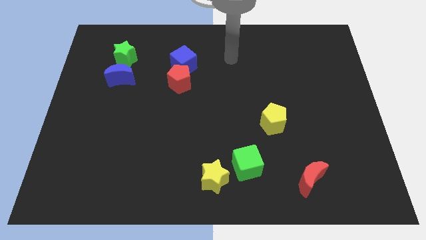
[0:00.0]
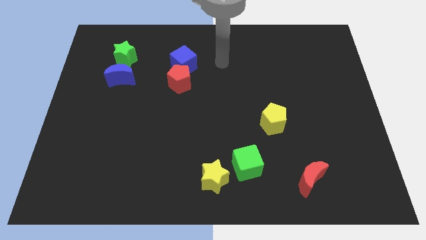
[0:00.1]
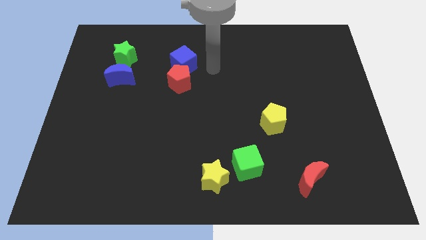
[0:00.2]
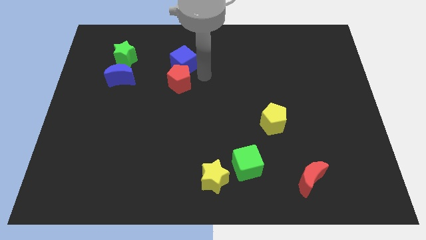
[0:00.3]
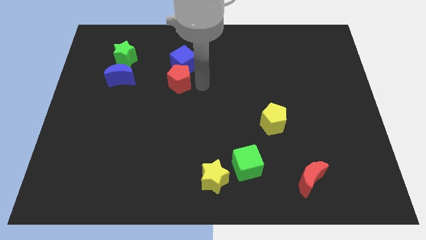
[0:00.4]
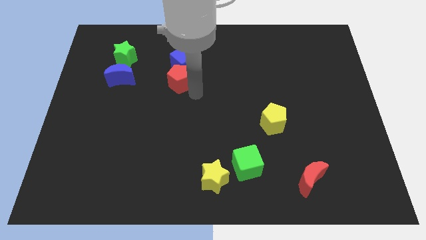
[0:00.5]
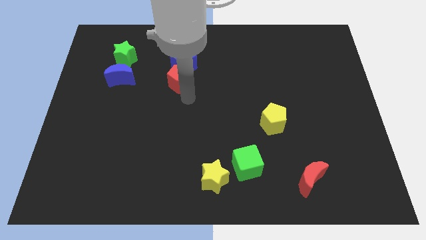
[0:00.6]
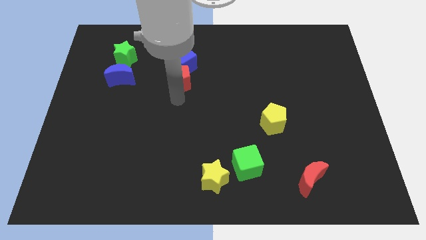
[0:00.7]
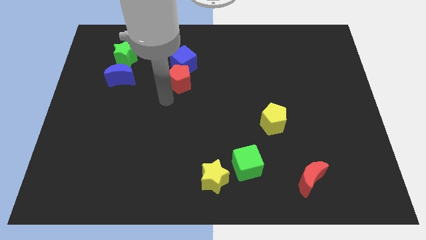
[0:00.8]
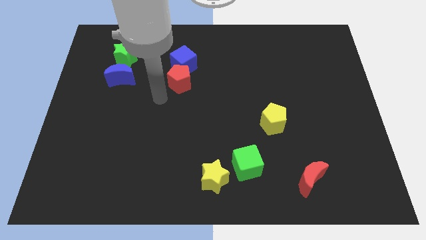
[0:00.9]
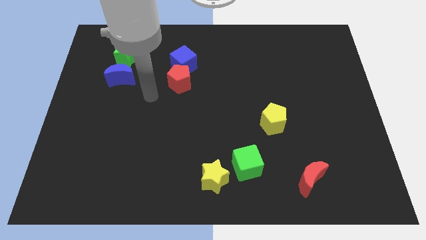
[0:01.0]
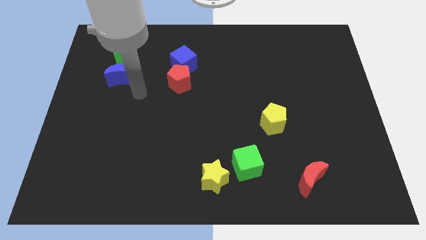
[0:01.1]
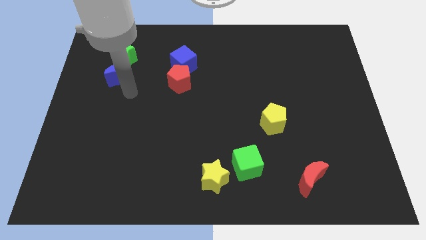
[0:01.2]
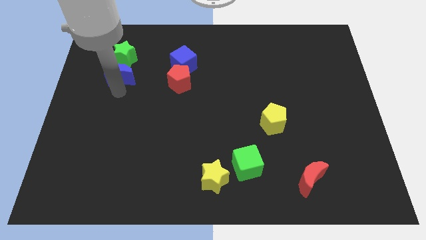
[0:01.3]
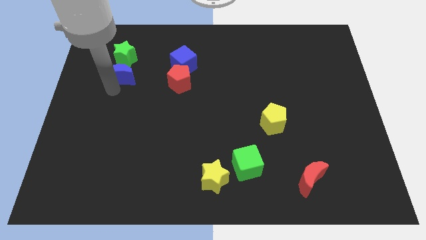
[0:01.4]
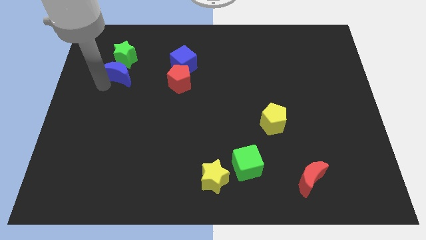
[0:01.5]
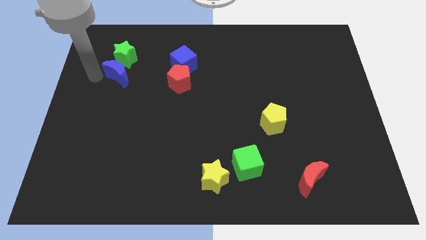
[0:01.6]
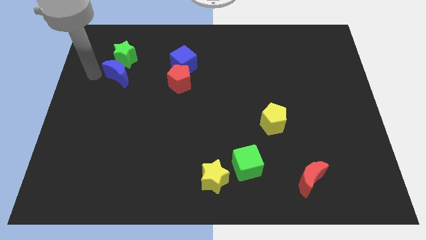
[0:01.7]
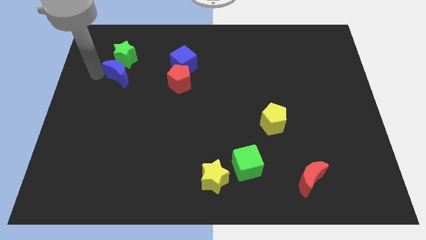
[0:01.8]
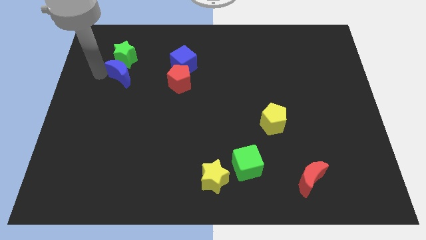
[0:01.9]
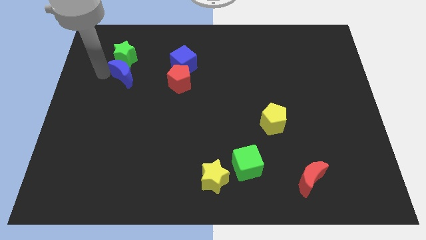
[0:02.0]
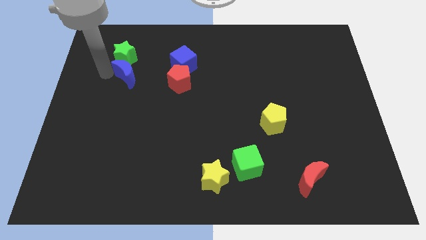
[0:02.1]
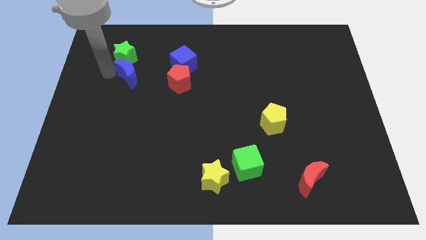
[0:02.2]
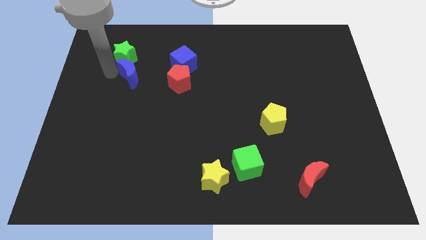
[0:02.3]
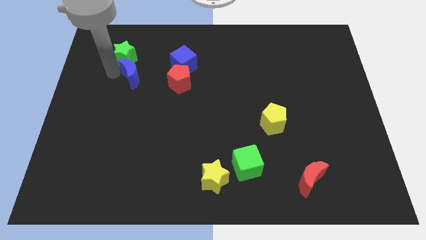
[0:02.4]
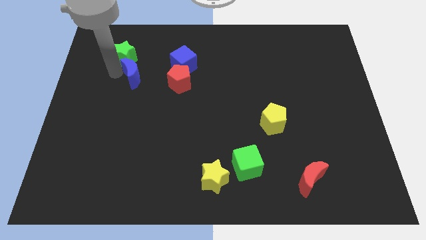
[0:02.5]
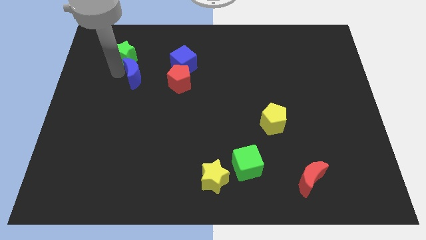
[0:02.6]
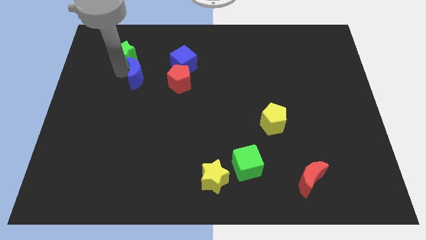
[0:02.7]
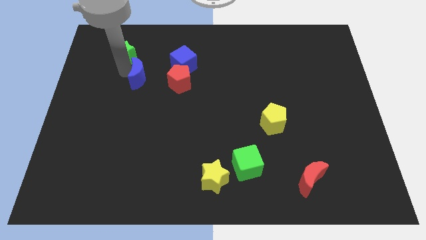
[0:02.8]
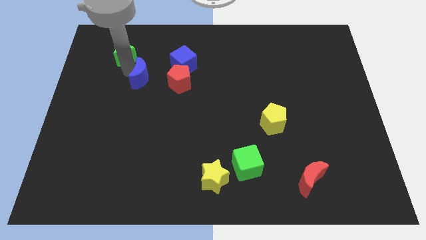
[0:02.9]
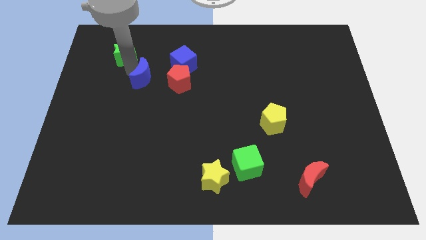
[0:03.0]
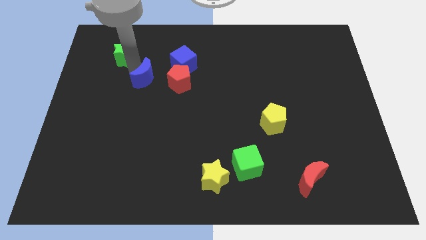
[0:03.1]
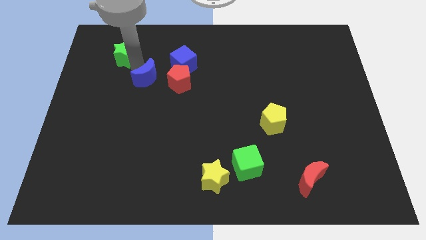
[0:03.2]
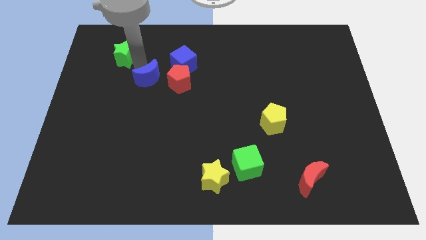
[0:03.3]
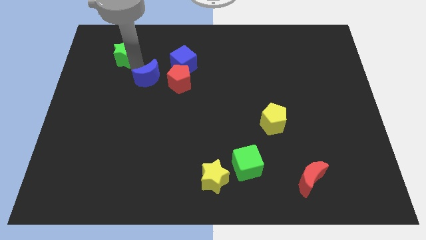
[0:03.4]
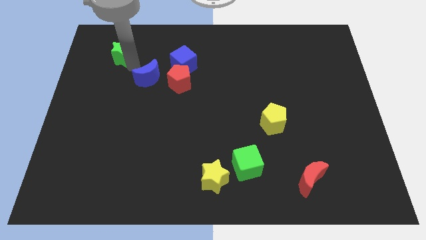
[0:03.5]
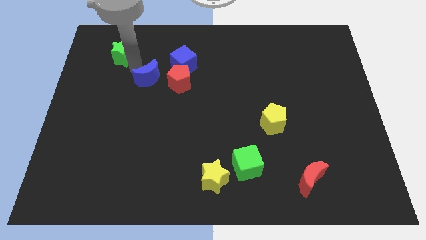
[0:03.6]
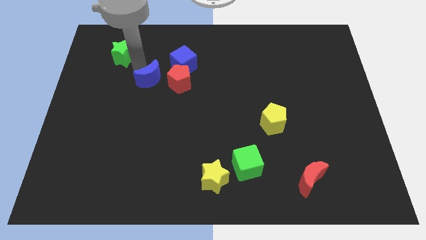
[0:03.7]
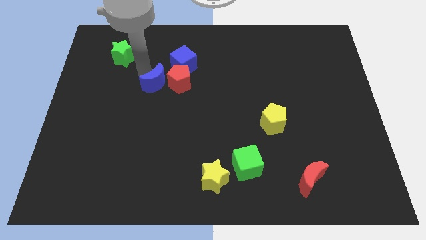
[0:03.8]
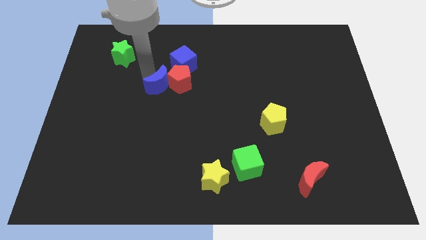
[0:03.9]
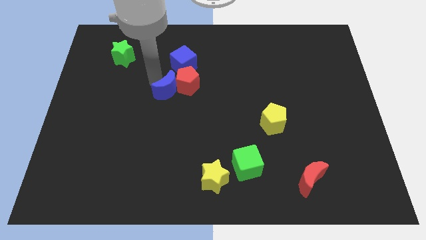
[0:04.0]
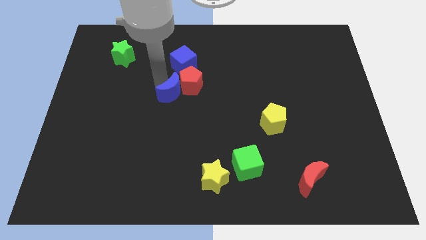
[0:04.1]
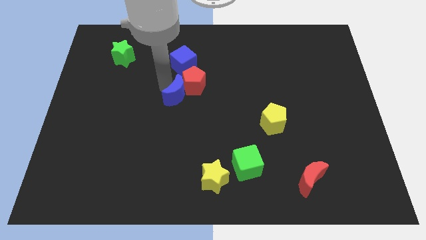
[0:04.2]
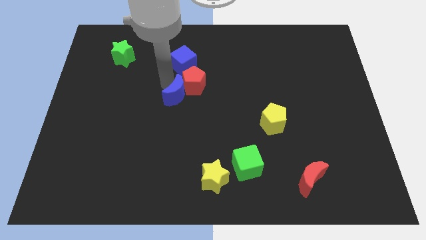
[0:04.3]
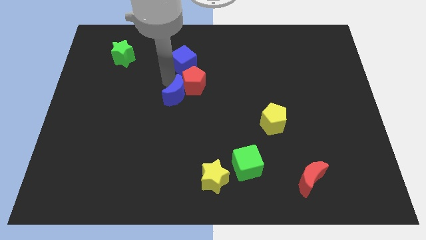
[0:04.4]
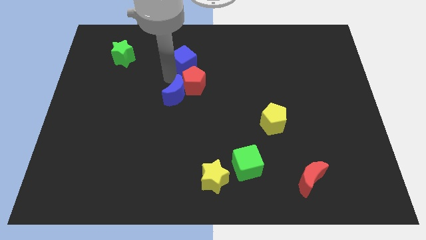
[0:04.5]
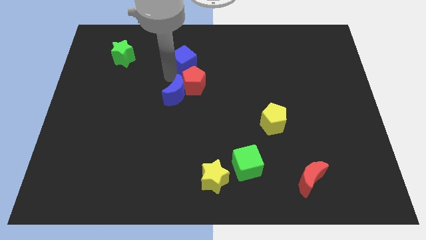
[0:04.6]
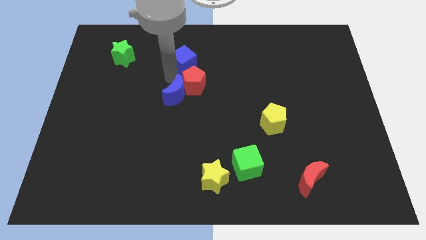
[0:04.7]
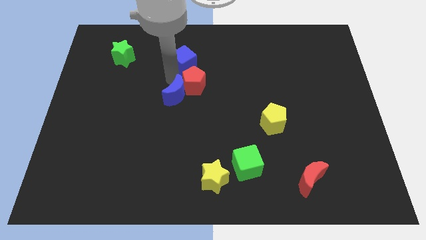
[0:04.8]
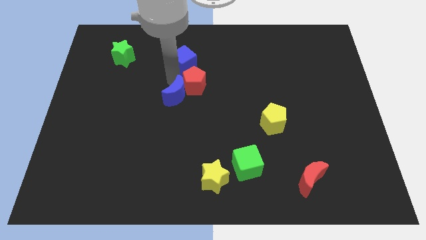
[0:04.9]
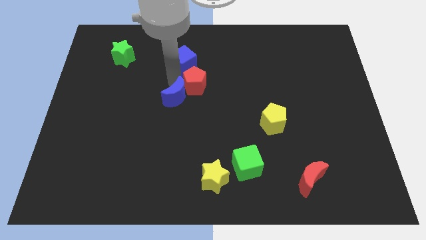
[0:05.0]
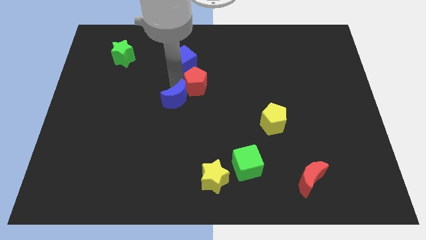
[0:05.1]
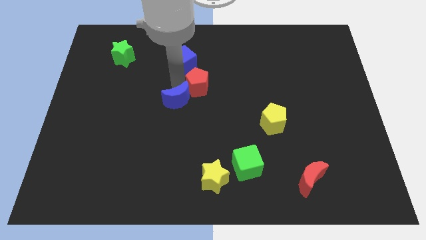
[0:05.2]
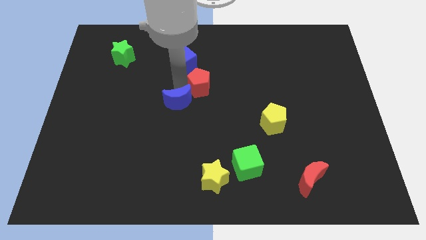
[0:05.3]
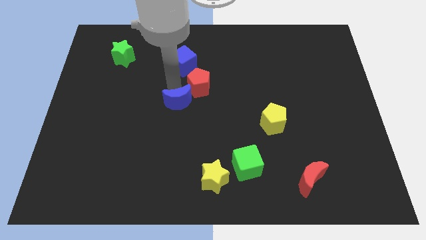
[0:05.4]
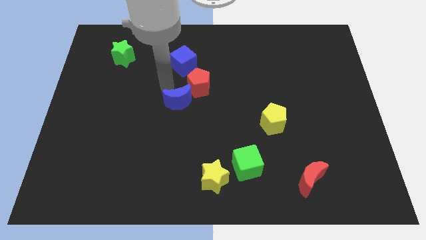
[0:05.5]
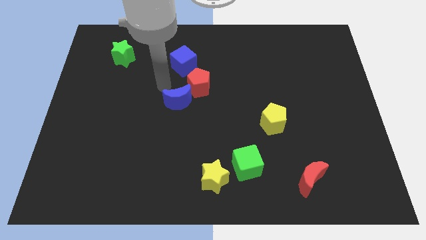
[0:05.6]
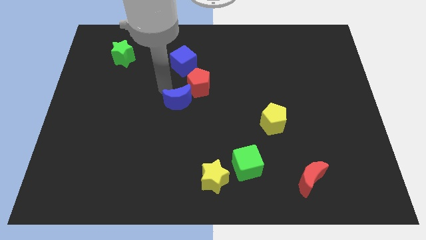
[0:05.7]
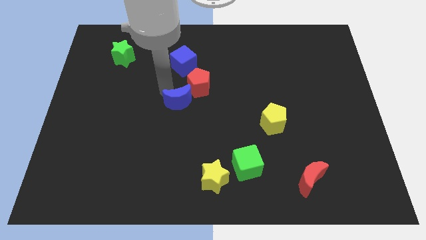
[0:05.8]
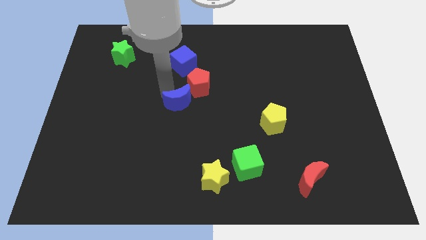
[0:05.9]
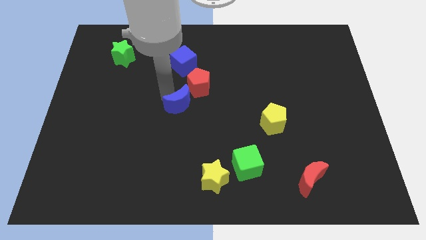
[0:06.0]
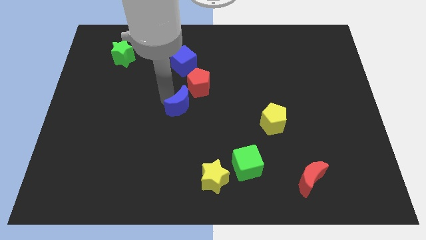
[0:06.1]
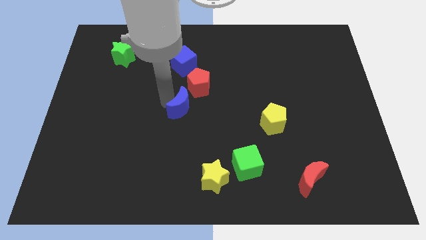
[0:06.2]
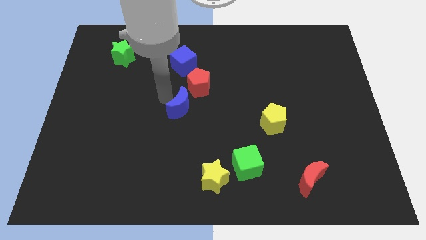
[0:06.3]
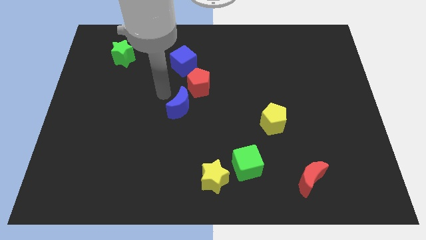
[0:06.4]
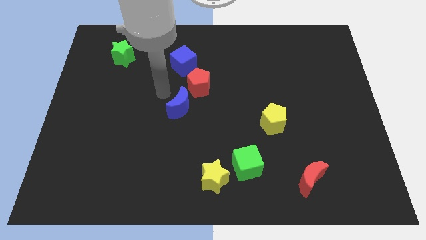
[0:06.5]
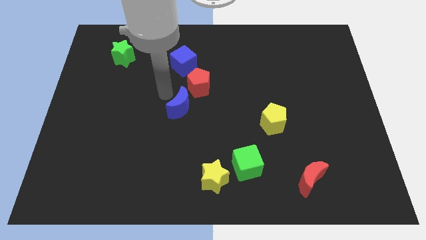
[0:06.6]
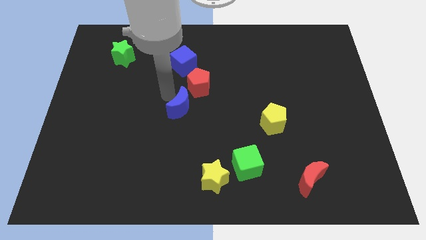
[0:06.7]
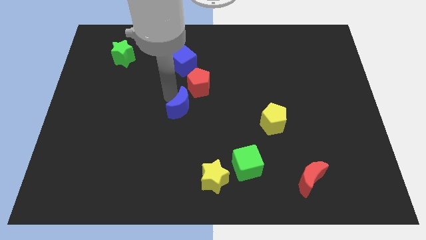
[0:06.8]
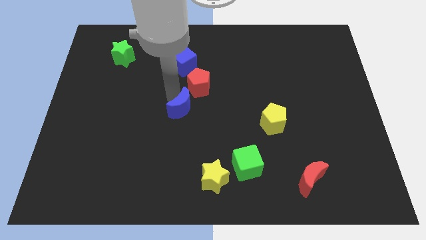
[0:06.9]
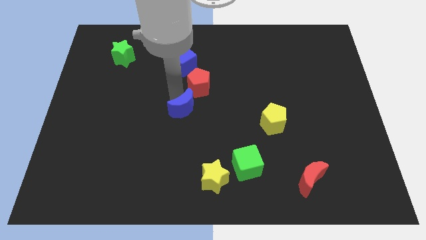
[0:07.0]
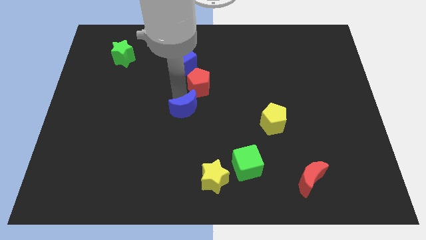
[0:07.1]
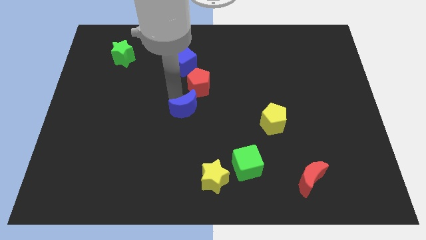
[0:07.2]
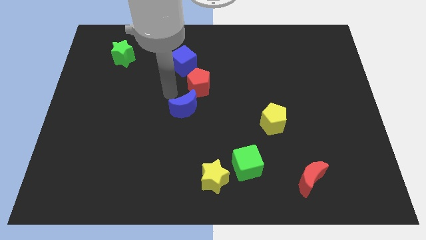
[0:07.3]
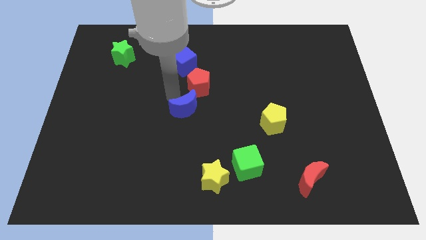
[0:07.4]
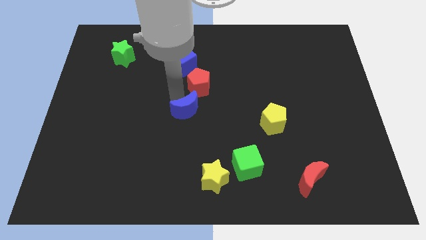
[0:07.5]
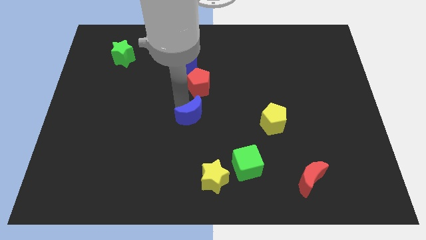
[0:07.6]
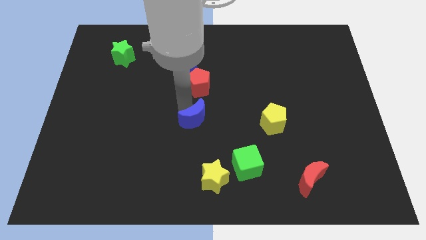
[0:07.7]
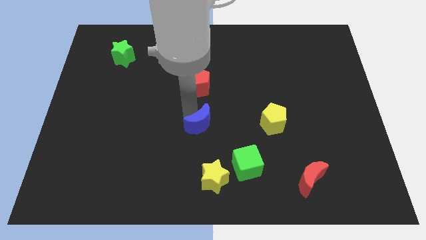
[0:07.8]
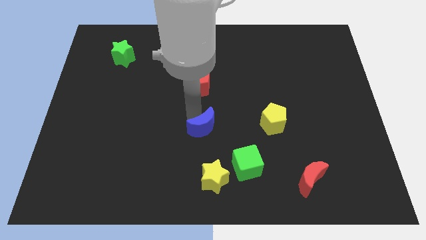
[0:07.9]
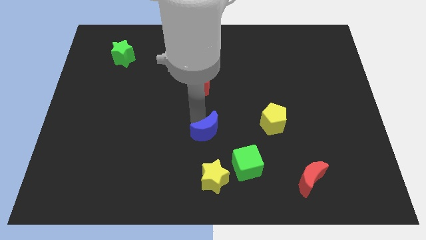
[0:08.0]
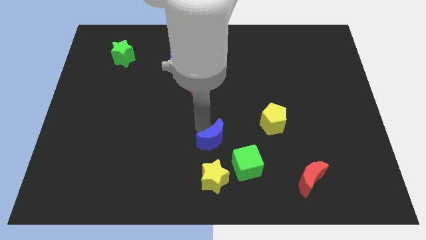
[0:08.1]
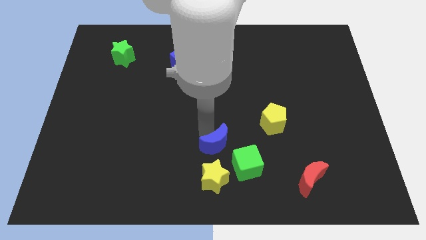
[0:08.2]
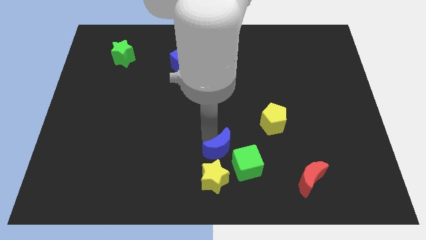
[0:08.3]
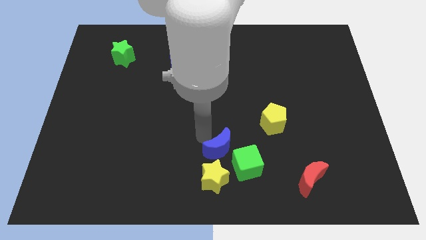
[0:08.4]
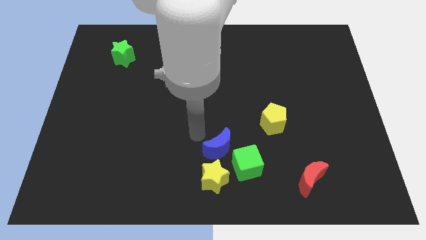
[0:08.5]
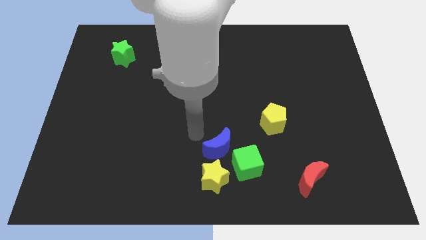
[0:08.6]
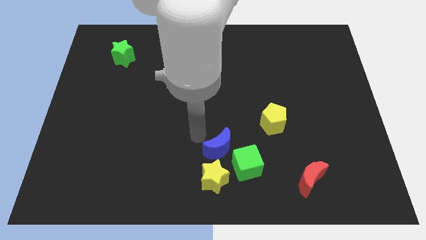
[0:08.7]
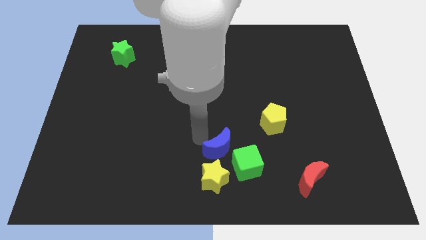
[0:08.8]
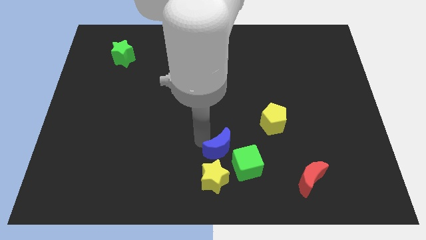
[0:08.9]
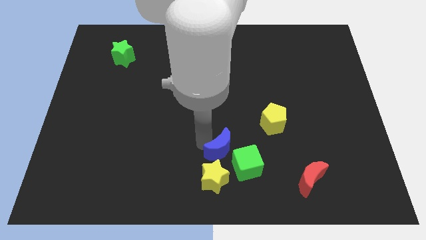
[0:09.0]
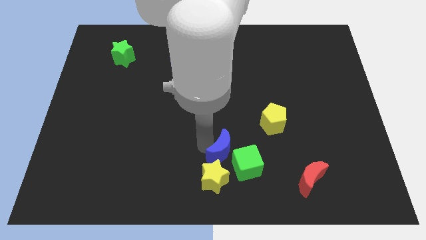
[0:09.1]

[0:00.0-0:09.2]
put the blue moon next to the green cube
